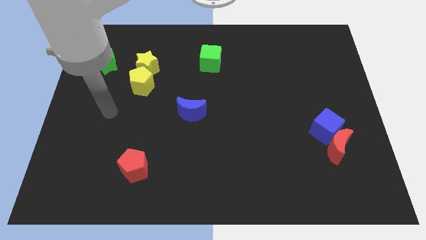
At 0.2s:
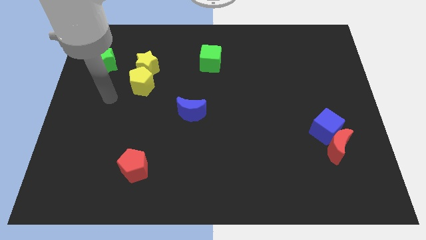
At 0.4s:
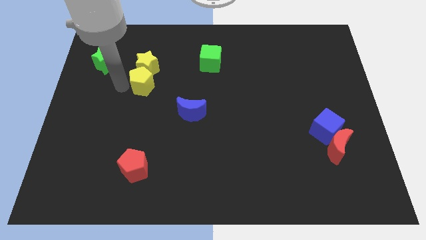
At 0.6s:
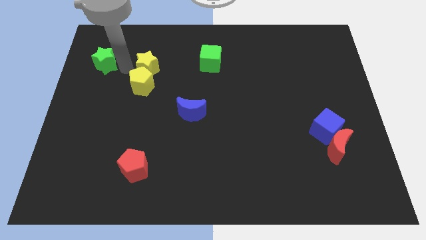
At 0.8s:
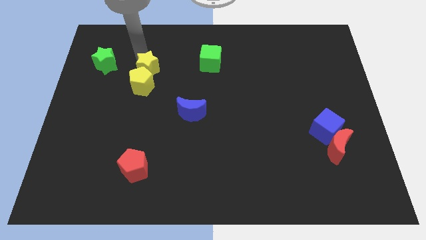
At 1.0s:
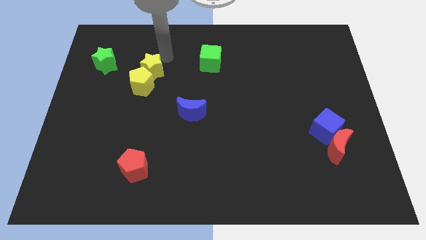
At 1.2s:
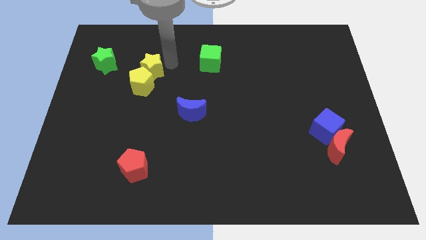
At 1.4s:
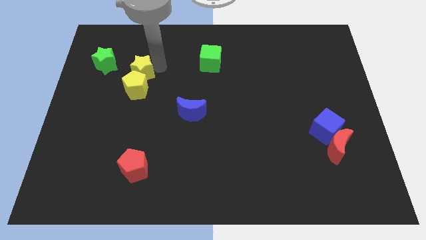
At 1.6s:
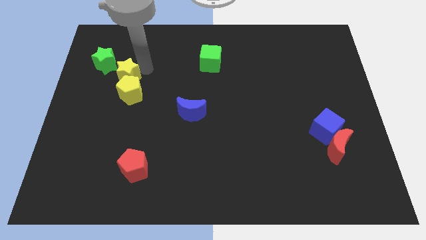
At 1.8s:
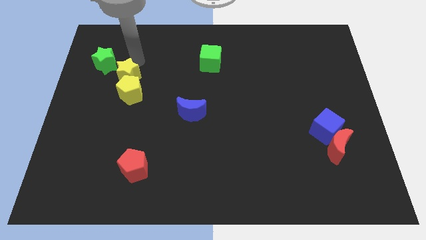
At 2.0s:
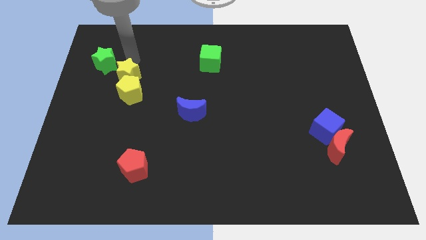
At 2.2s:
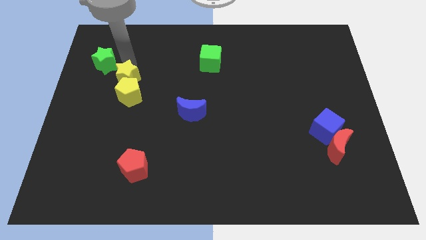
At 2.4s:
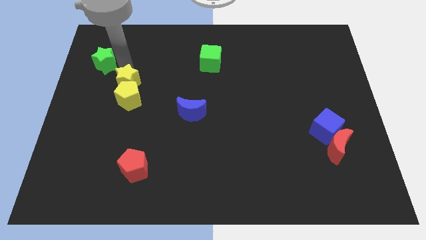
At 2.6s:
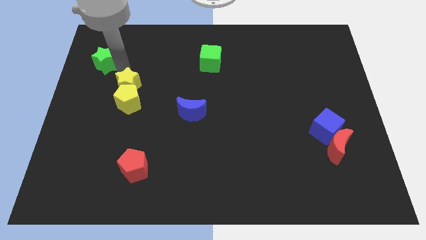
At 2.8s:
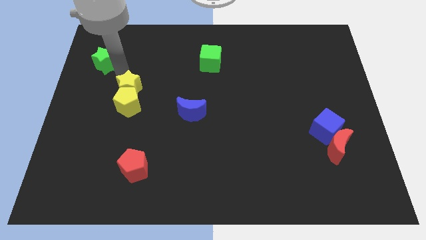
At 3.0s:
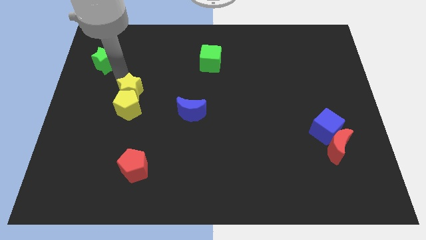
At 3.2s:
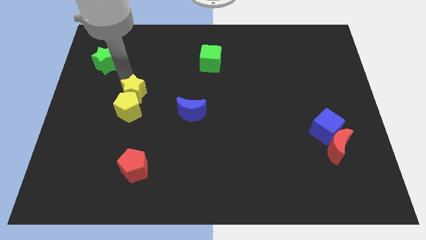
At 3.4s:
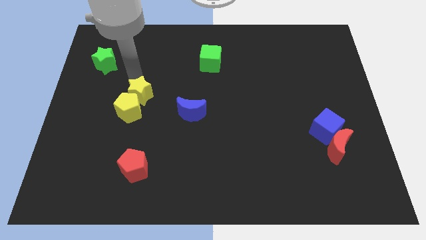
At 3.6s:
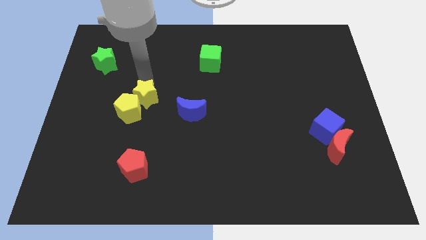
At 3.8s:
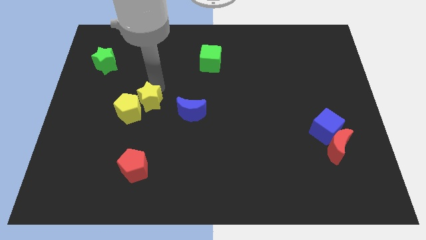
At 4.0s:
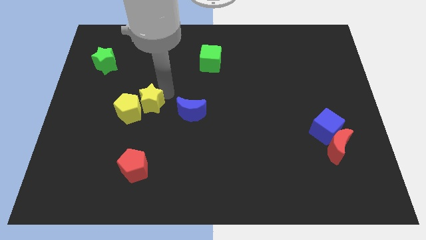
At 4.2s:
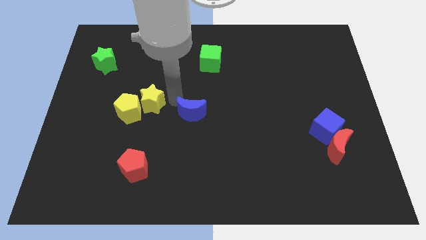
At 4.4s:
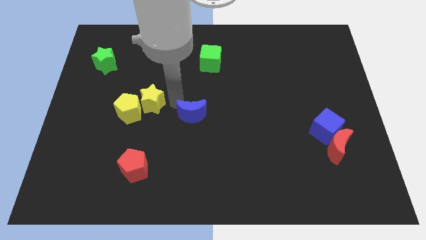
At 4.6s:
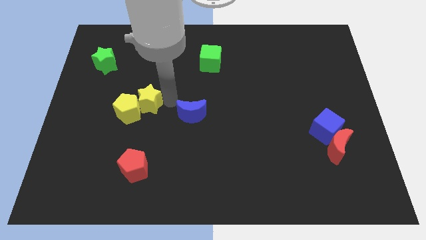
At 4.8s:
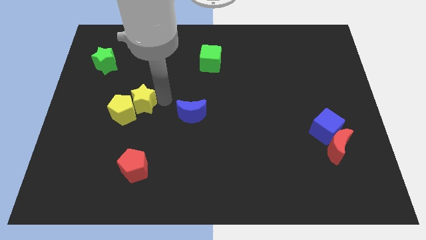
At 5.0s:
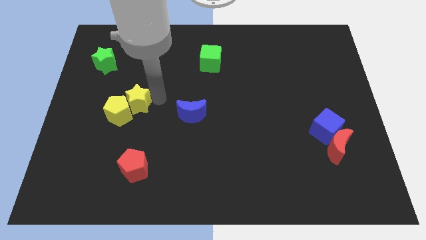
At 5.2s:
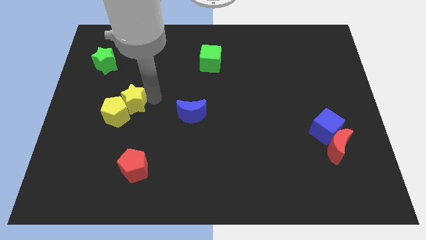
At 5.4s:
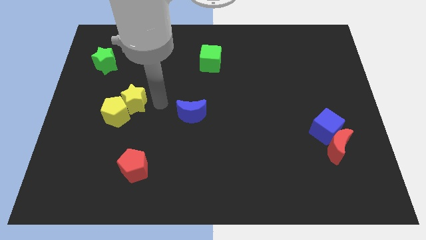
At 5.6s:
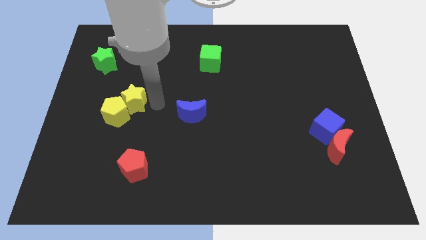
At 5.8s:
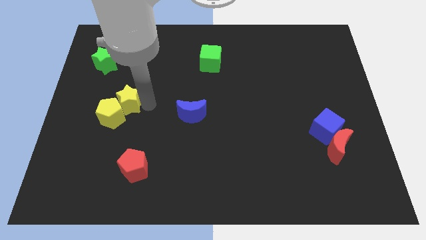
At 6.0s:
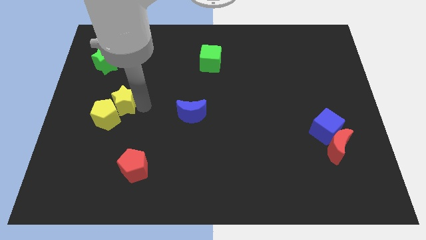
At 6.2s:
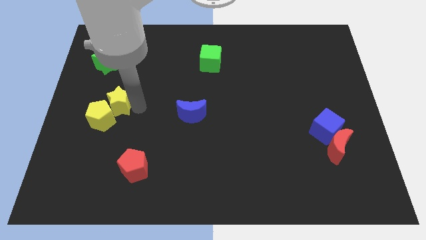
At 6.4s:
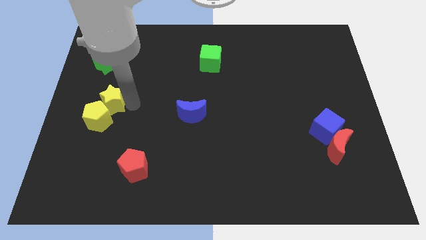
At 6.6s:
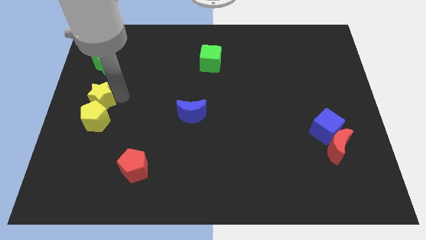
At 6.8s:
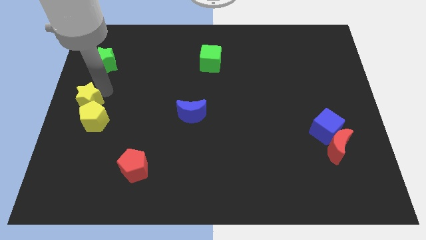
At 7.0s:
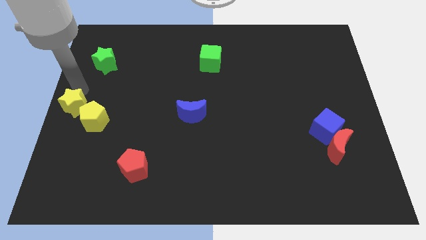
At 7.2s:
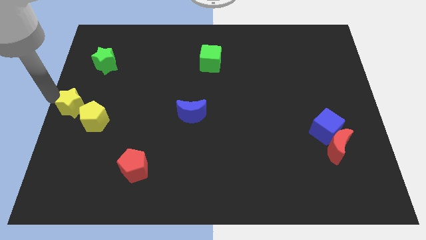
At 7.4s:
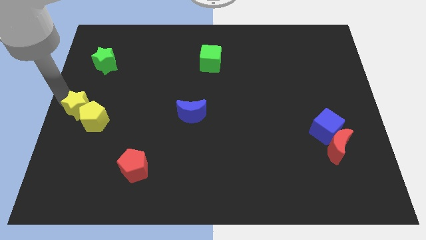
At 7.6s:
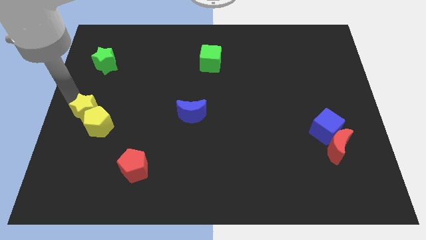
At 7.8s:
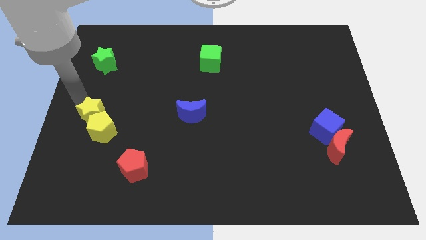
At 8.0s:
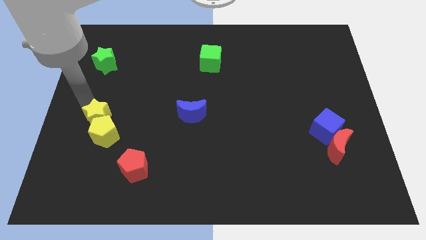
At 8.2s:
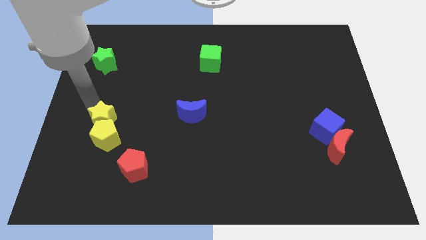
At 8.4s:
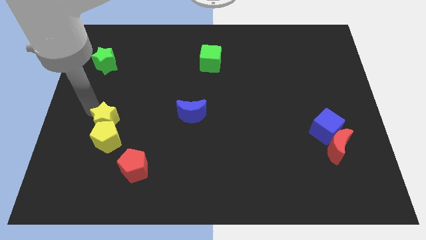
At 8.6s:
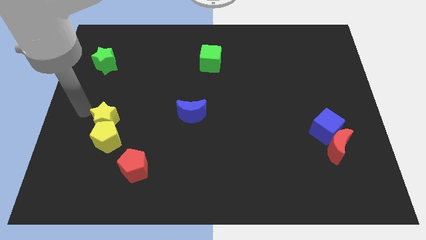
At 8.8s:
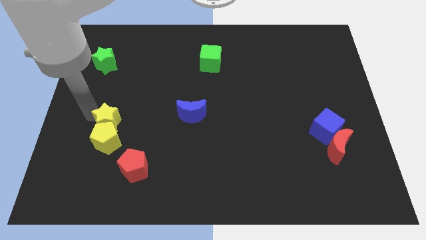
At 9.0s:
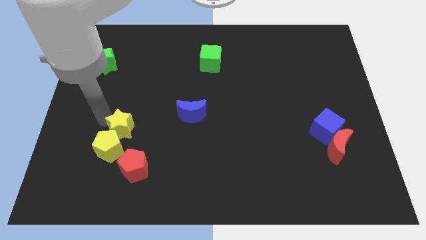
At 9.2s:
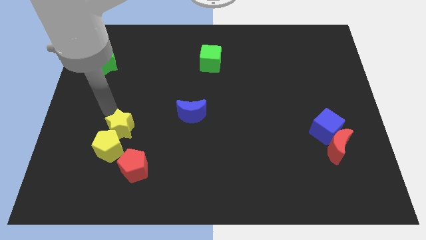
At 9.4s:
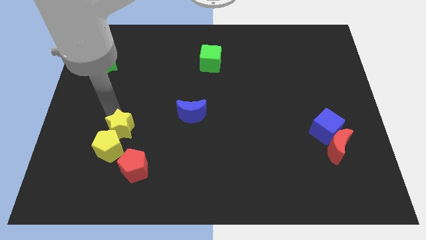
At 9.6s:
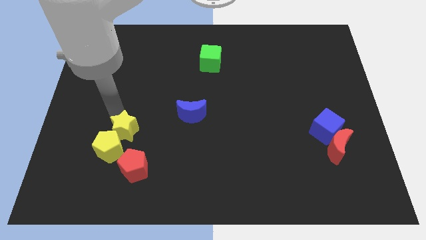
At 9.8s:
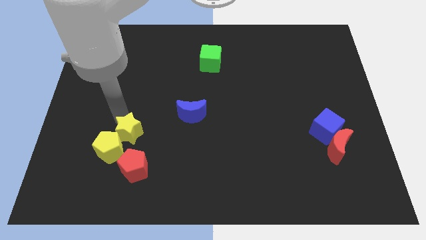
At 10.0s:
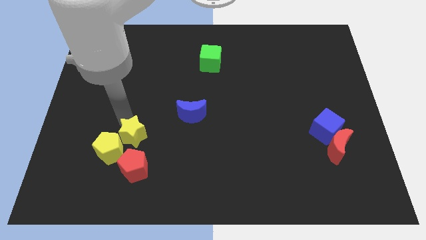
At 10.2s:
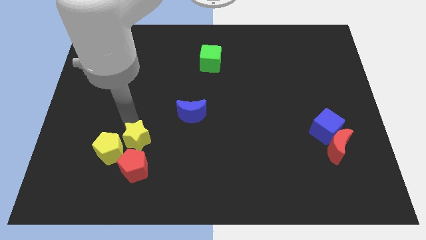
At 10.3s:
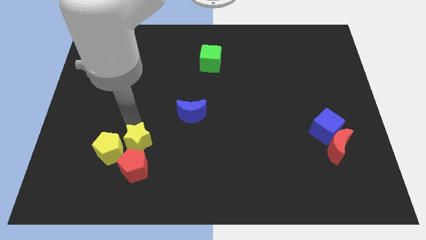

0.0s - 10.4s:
push the yellow star close to the red pentagon

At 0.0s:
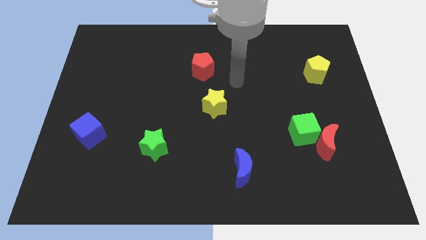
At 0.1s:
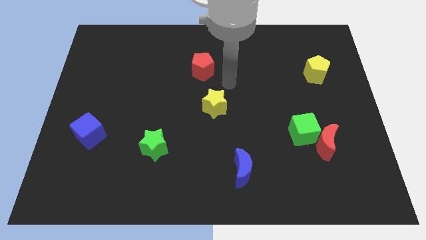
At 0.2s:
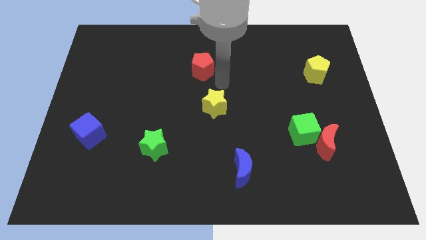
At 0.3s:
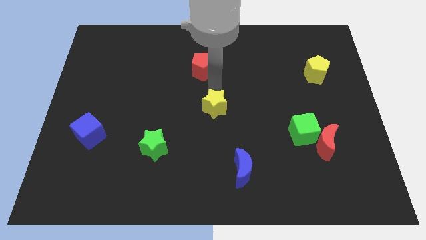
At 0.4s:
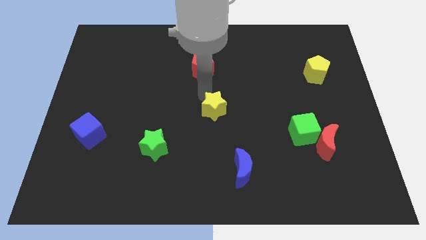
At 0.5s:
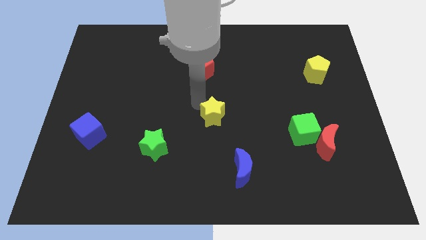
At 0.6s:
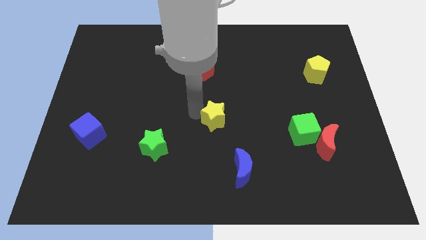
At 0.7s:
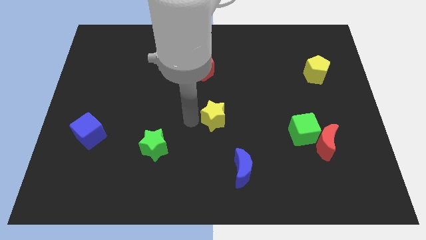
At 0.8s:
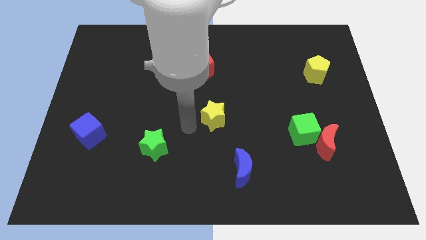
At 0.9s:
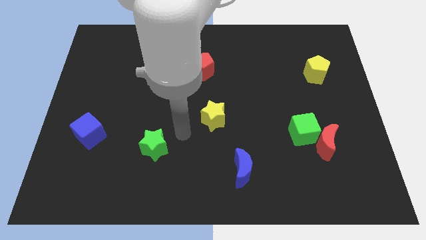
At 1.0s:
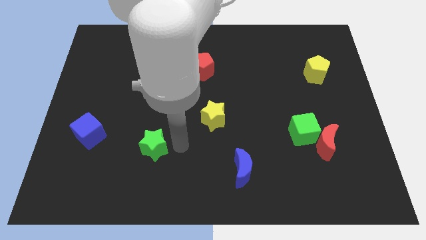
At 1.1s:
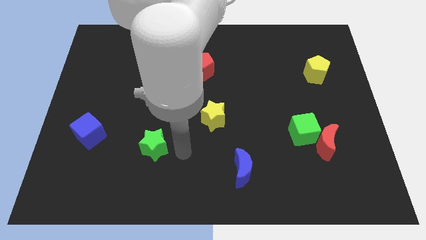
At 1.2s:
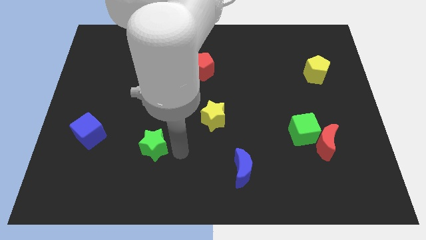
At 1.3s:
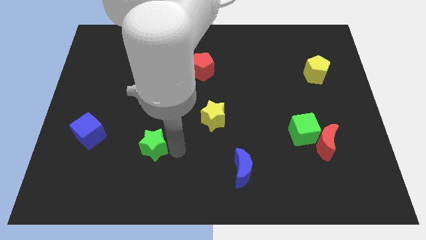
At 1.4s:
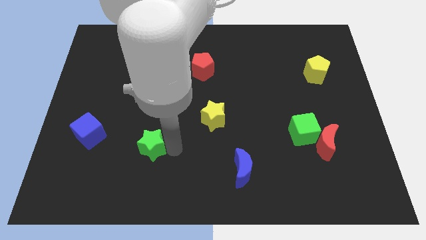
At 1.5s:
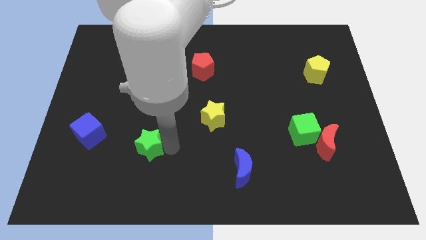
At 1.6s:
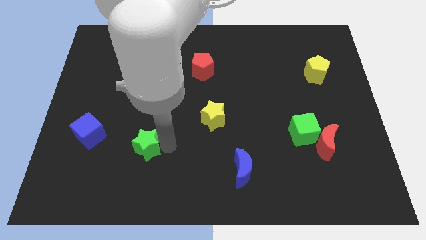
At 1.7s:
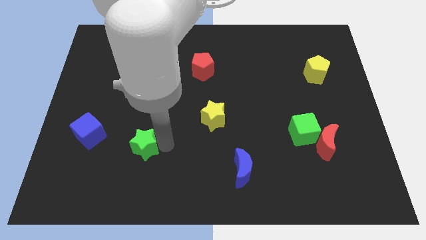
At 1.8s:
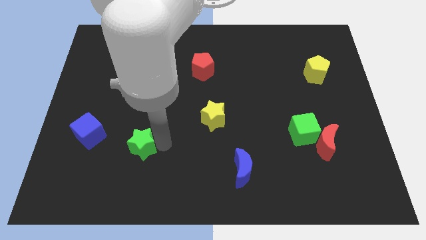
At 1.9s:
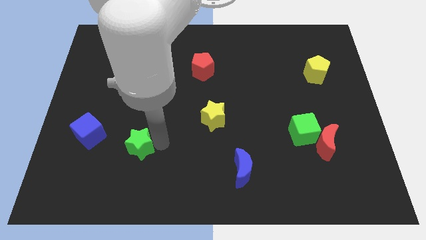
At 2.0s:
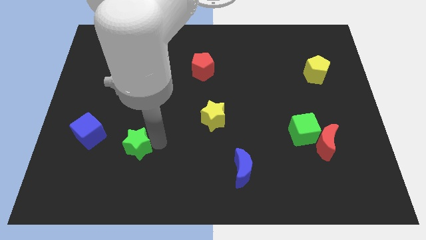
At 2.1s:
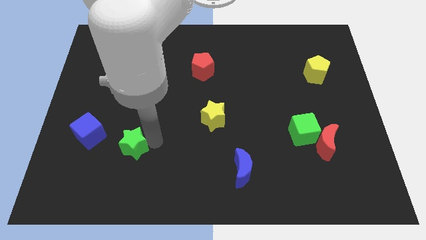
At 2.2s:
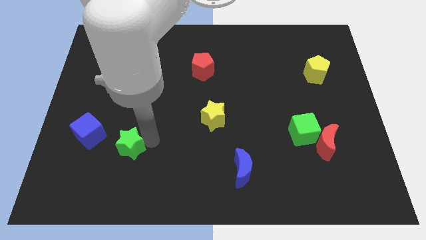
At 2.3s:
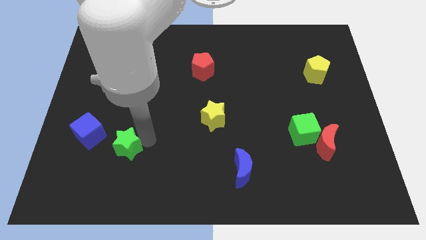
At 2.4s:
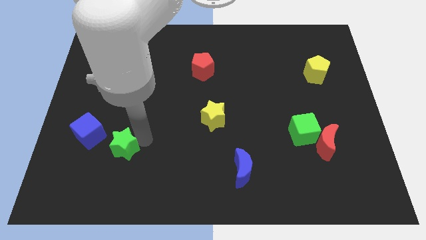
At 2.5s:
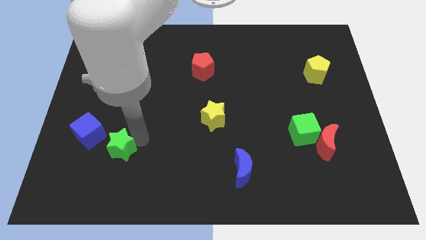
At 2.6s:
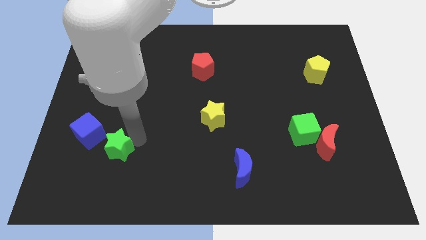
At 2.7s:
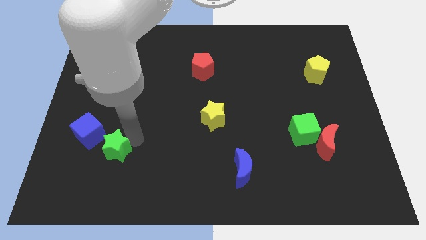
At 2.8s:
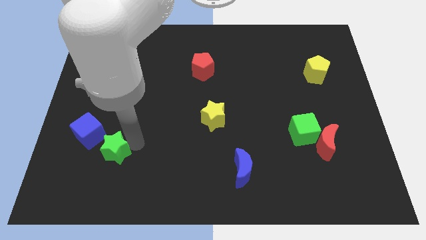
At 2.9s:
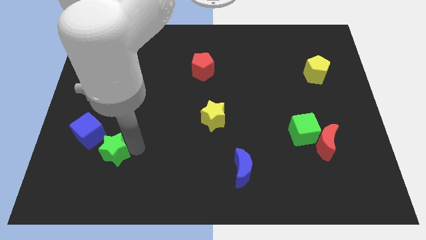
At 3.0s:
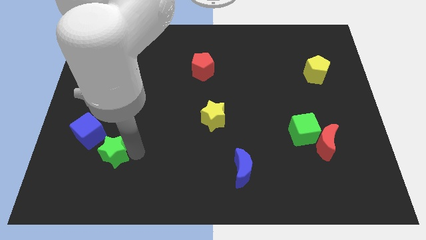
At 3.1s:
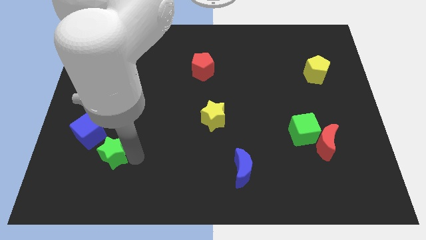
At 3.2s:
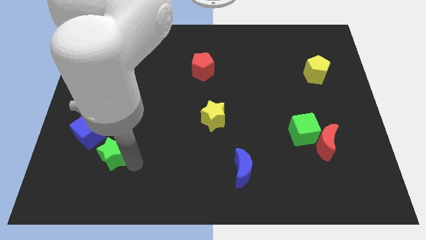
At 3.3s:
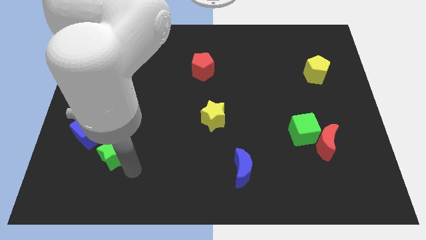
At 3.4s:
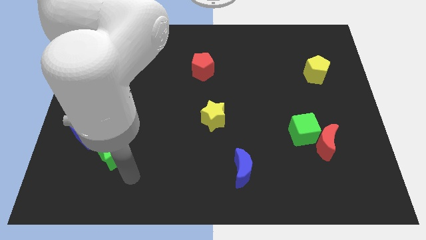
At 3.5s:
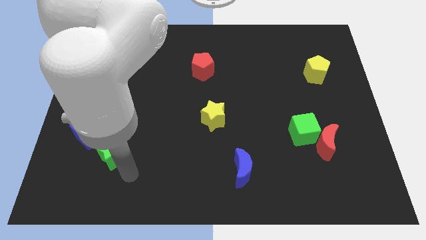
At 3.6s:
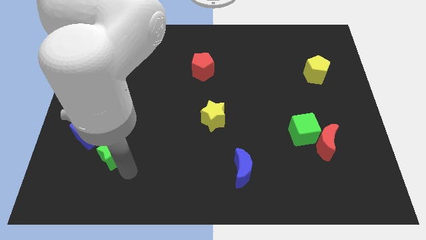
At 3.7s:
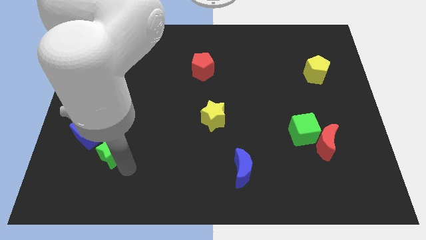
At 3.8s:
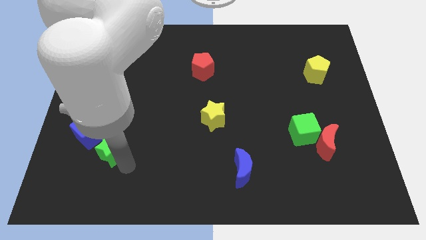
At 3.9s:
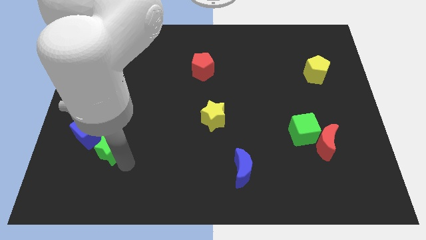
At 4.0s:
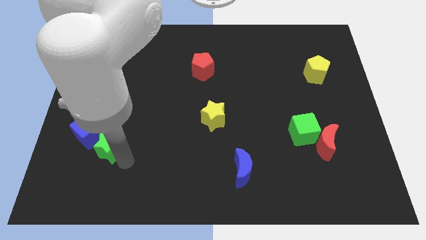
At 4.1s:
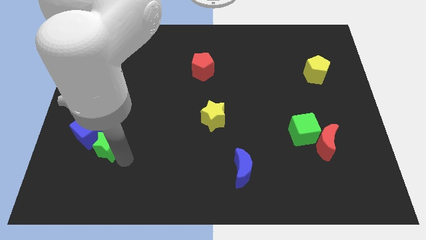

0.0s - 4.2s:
move the green star close to the blue cube
